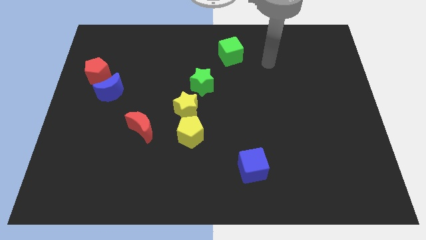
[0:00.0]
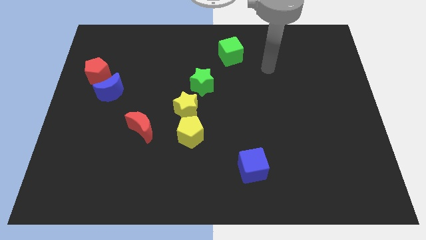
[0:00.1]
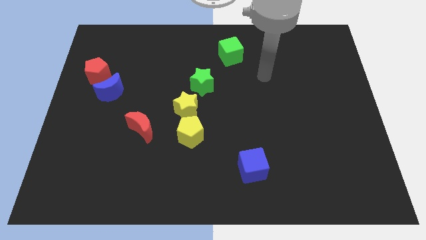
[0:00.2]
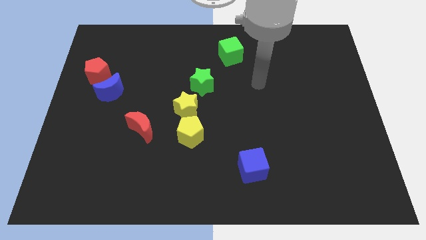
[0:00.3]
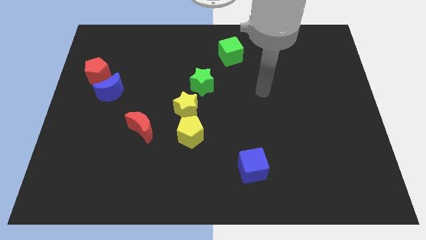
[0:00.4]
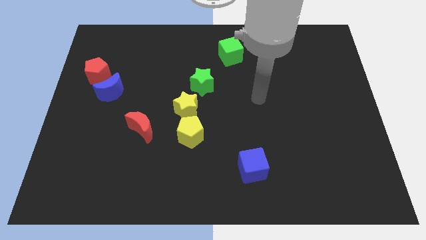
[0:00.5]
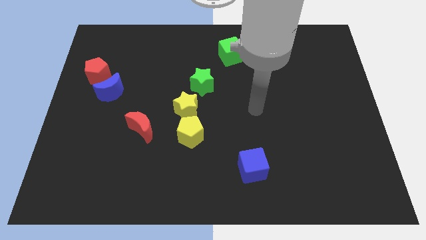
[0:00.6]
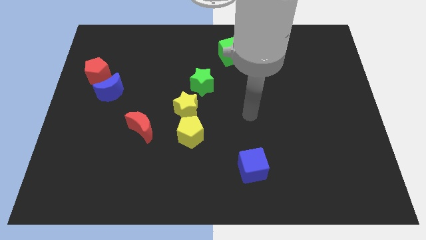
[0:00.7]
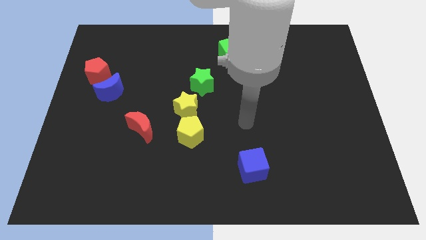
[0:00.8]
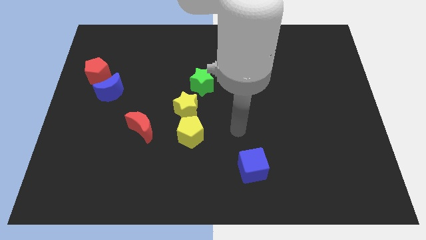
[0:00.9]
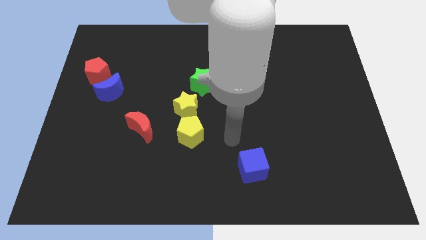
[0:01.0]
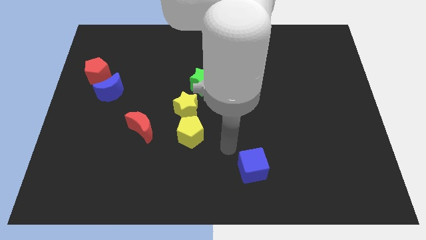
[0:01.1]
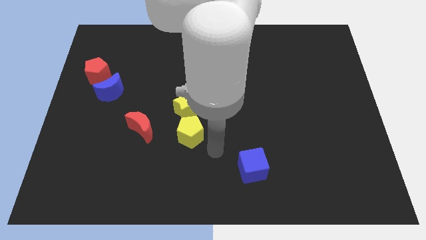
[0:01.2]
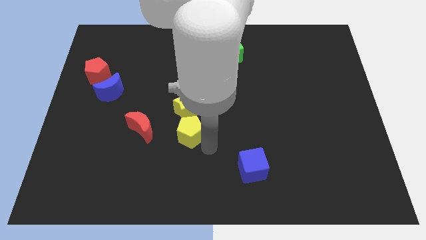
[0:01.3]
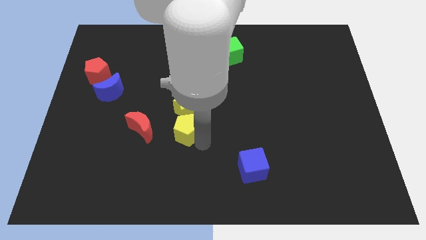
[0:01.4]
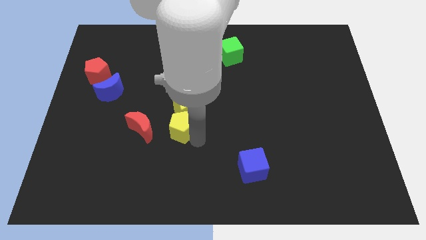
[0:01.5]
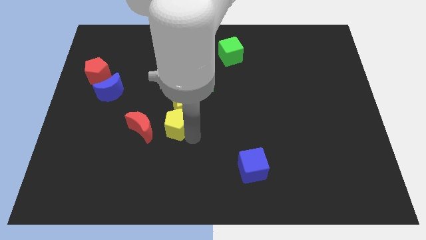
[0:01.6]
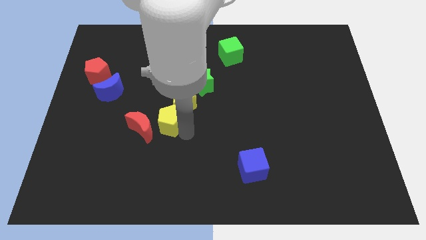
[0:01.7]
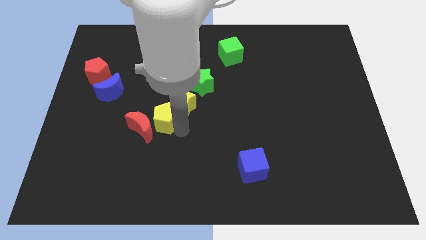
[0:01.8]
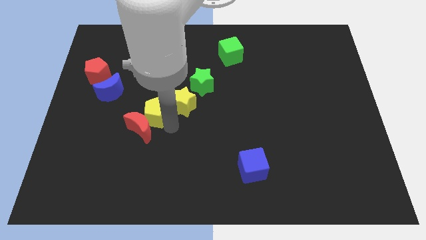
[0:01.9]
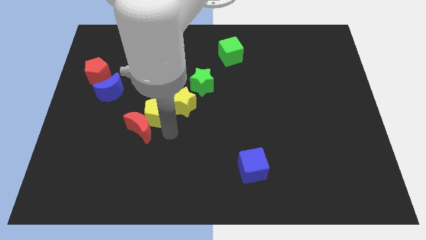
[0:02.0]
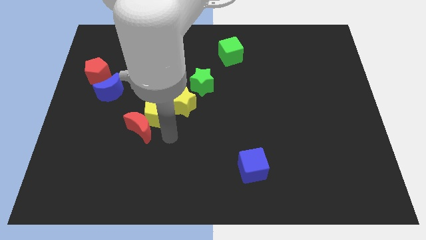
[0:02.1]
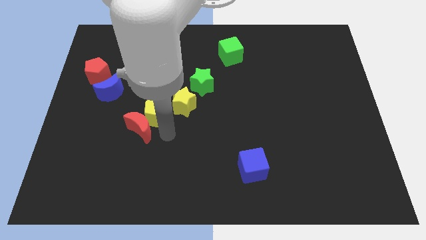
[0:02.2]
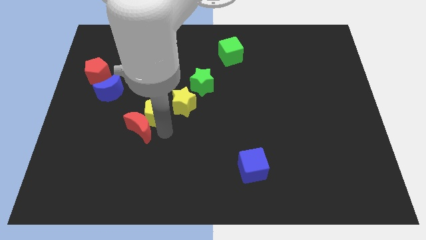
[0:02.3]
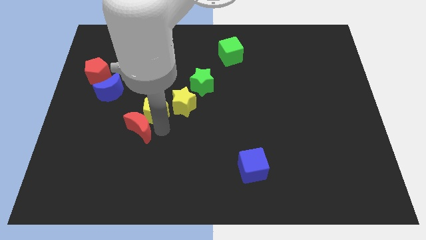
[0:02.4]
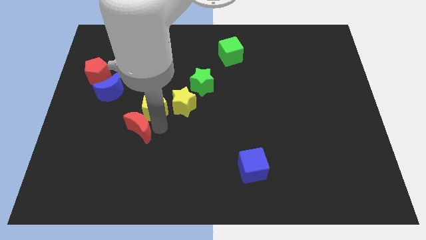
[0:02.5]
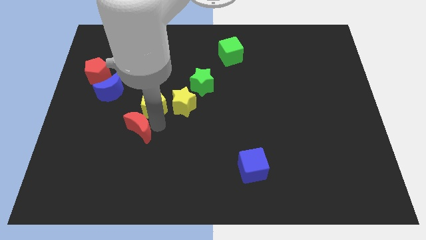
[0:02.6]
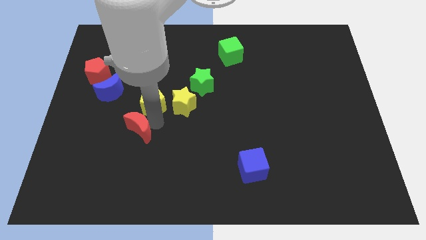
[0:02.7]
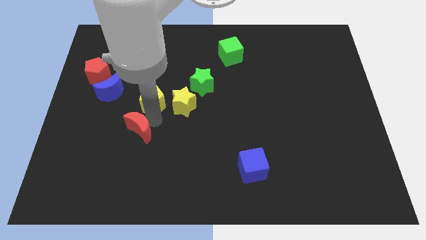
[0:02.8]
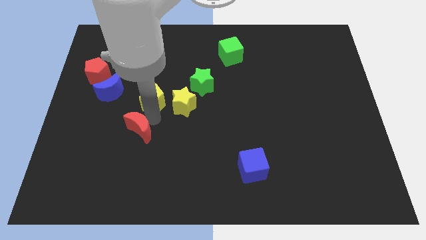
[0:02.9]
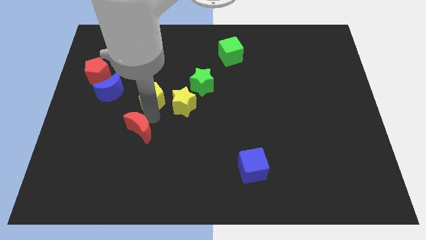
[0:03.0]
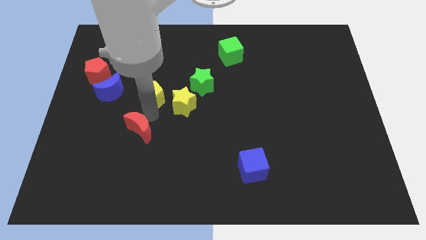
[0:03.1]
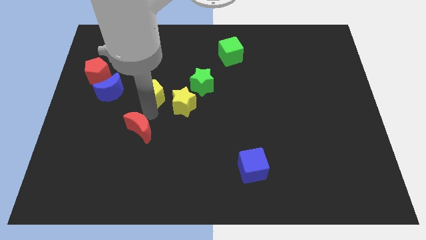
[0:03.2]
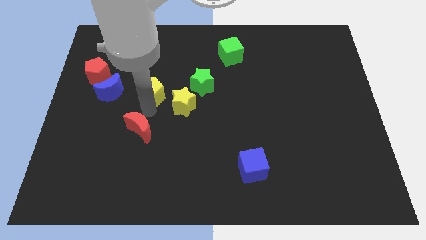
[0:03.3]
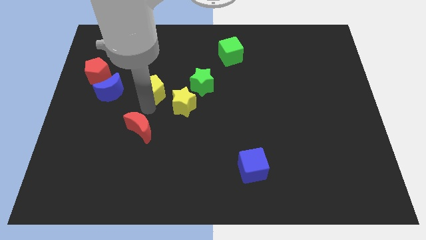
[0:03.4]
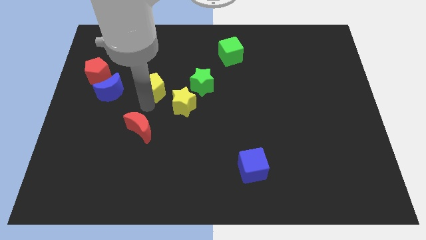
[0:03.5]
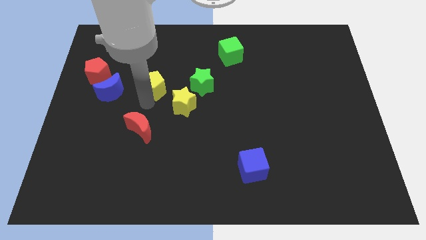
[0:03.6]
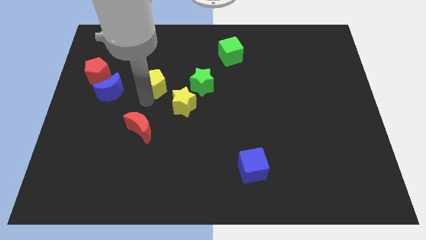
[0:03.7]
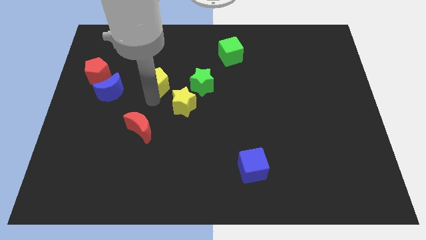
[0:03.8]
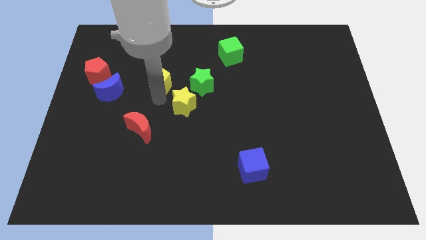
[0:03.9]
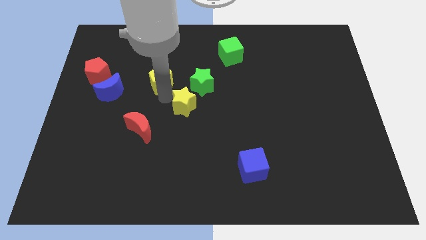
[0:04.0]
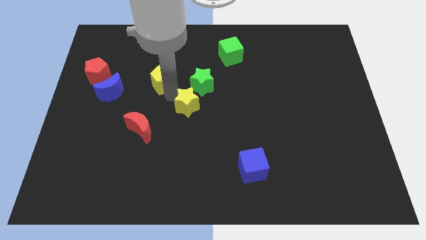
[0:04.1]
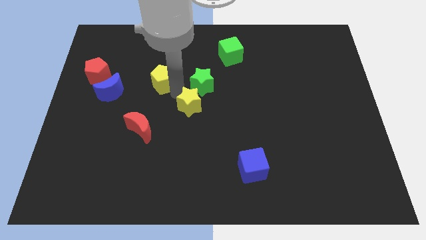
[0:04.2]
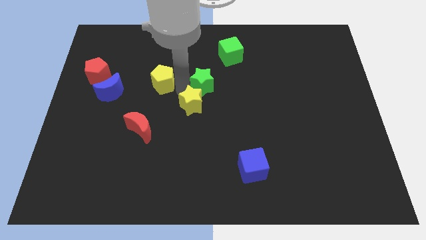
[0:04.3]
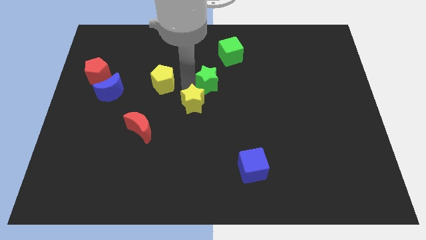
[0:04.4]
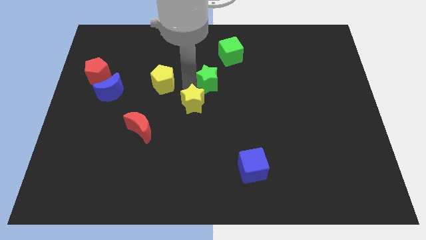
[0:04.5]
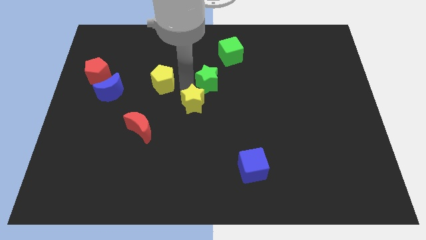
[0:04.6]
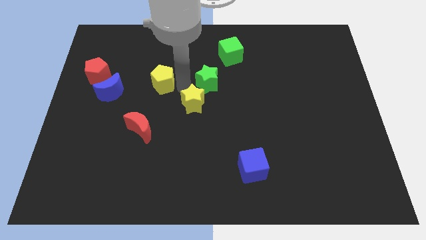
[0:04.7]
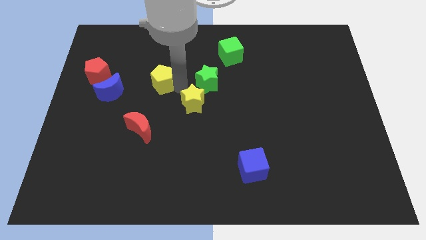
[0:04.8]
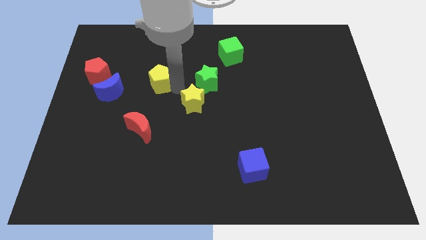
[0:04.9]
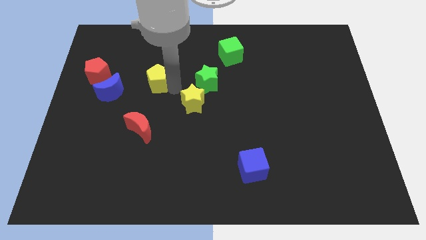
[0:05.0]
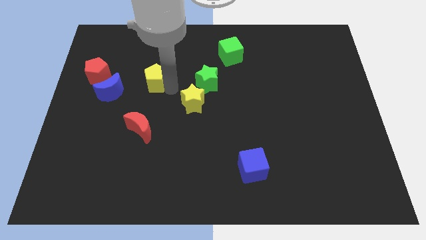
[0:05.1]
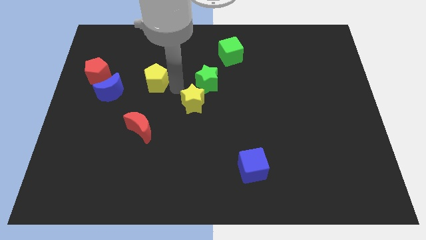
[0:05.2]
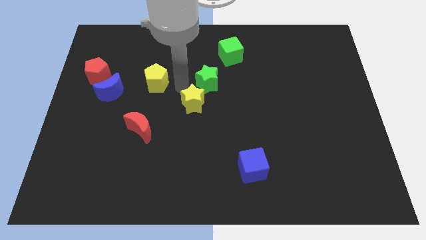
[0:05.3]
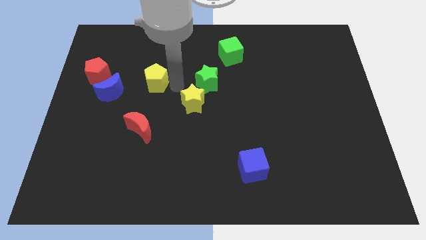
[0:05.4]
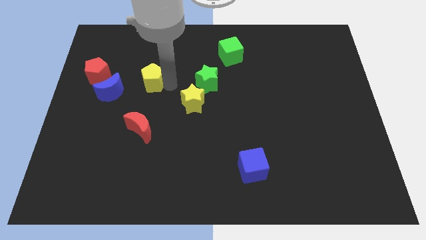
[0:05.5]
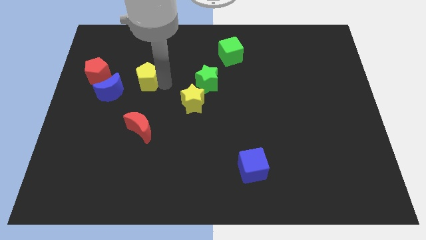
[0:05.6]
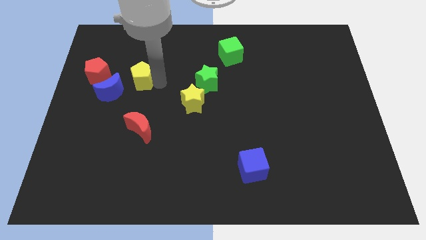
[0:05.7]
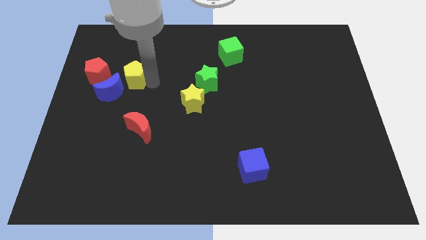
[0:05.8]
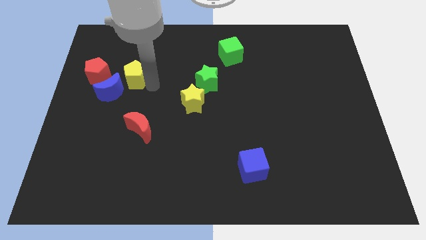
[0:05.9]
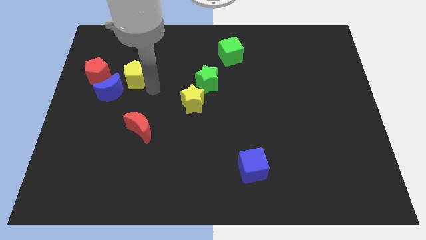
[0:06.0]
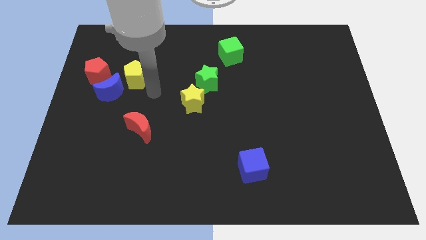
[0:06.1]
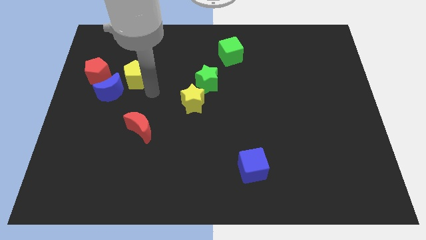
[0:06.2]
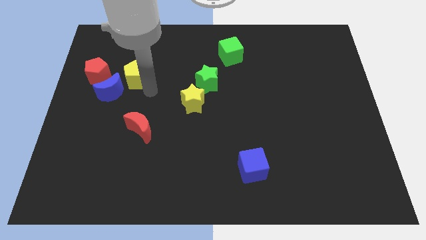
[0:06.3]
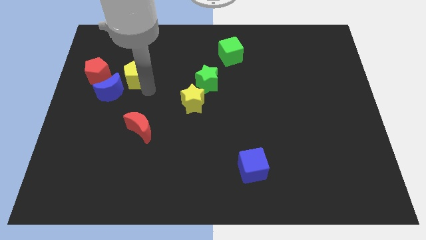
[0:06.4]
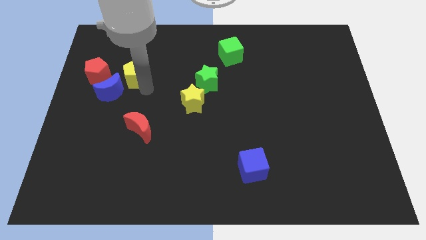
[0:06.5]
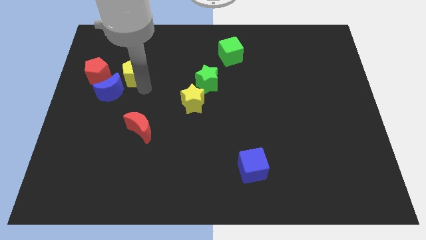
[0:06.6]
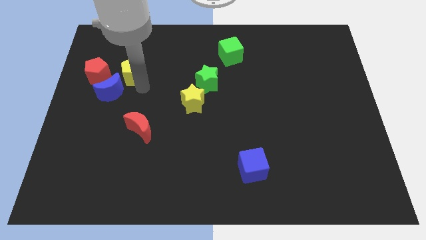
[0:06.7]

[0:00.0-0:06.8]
push the yellow pentagon above the blue moon

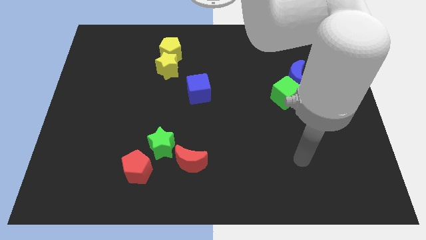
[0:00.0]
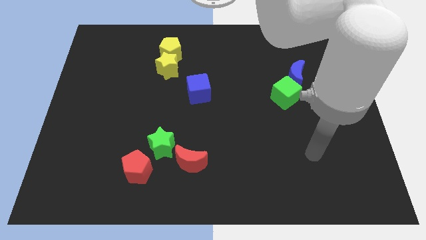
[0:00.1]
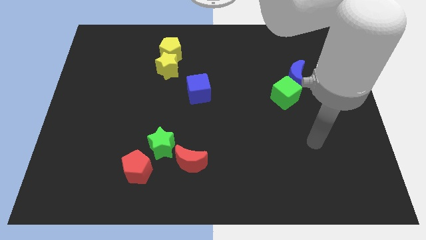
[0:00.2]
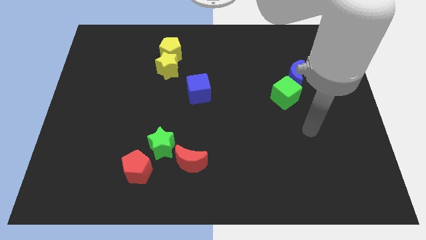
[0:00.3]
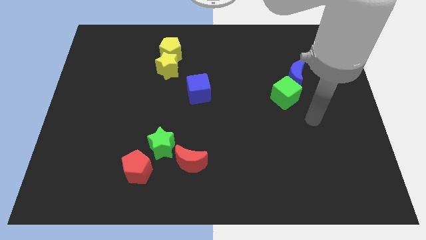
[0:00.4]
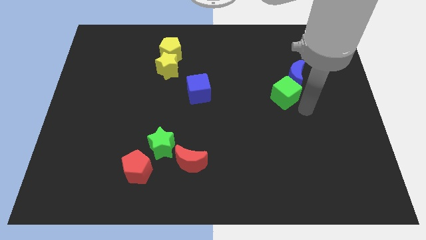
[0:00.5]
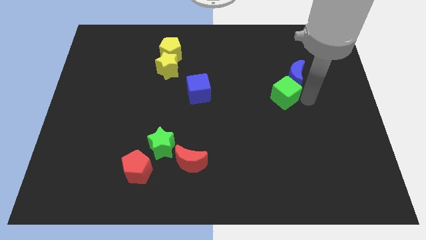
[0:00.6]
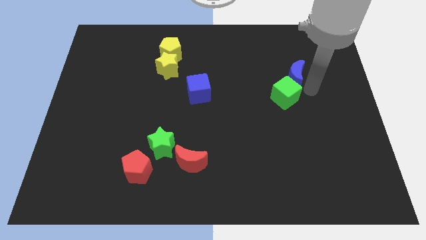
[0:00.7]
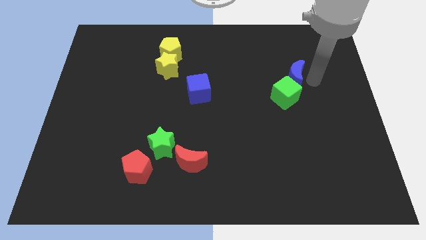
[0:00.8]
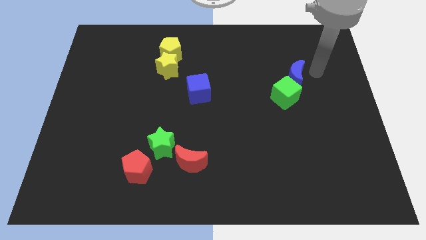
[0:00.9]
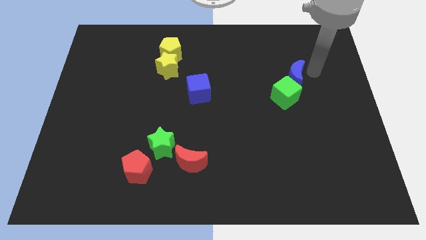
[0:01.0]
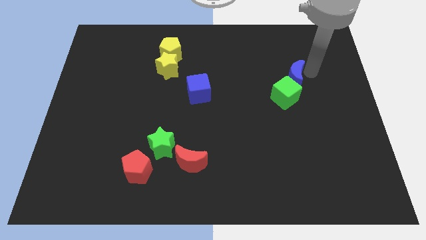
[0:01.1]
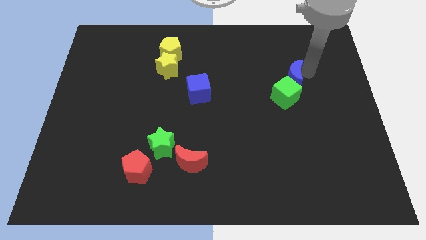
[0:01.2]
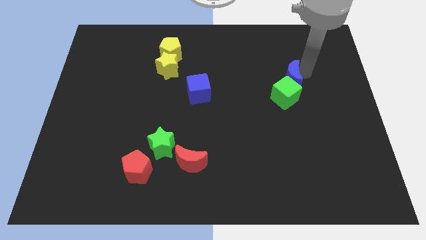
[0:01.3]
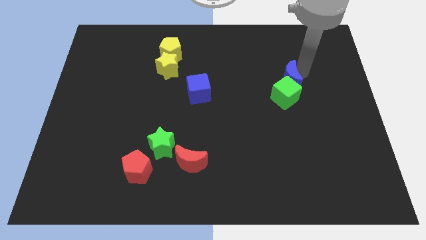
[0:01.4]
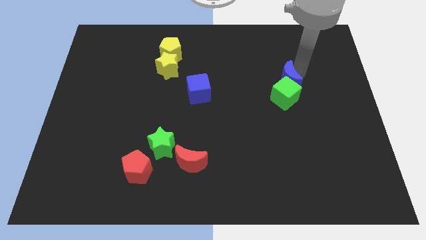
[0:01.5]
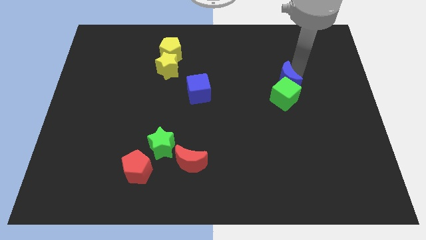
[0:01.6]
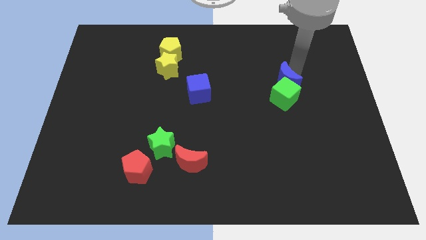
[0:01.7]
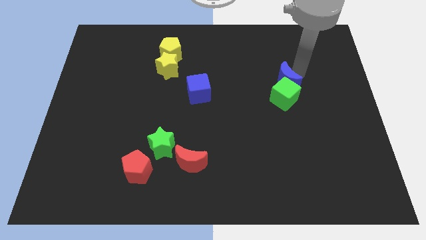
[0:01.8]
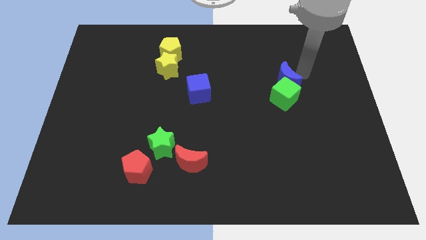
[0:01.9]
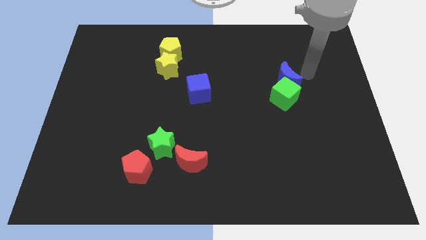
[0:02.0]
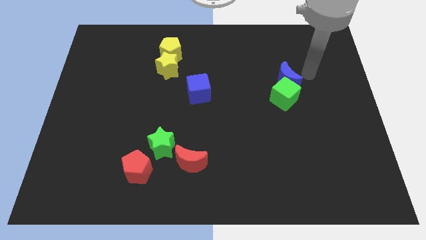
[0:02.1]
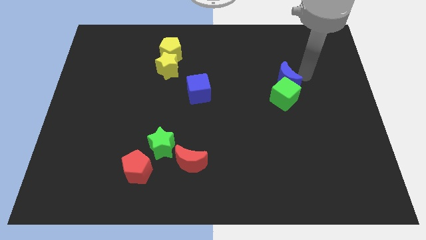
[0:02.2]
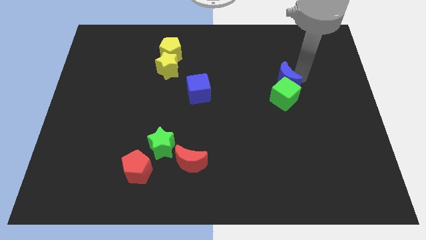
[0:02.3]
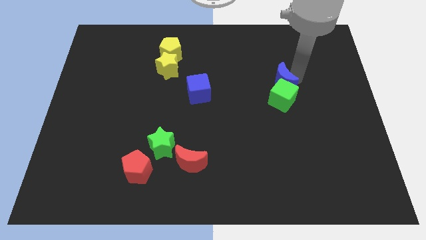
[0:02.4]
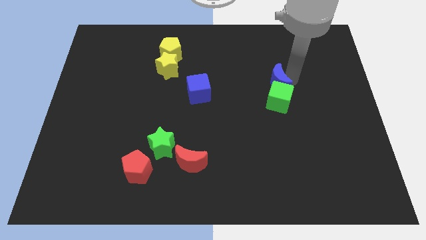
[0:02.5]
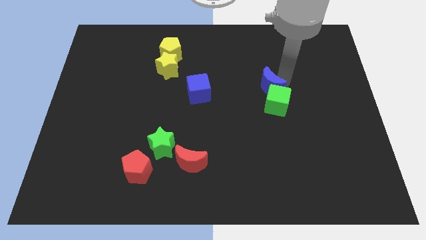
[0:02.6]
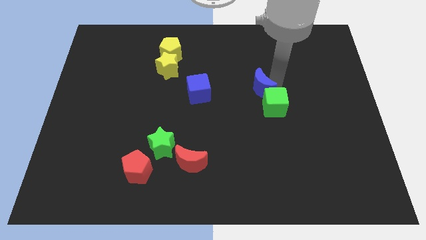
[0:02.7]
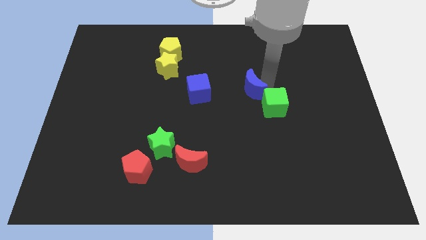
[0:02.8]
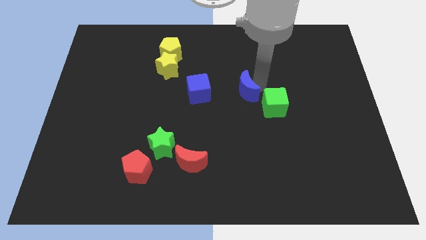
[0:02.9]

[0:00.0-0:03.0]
move the blue moon to the left of the green cube
